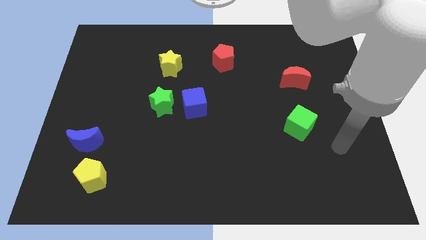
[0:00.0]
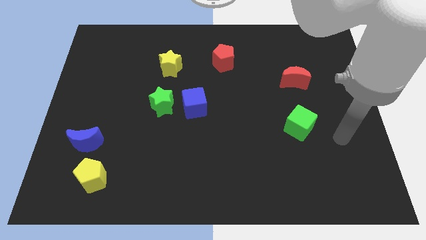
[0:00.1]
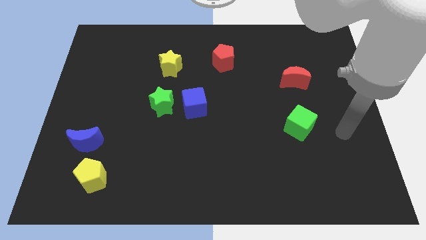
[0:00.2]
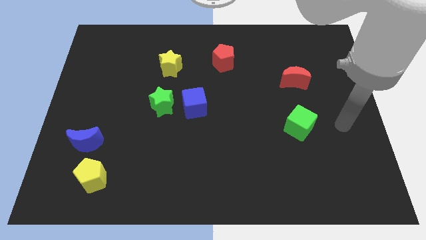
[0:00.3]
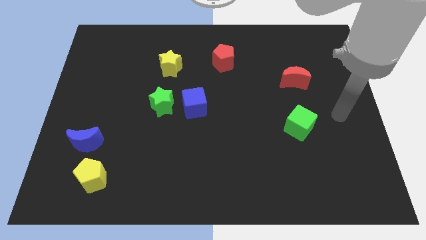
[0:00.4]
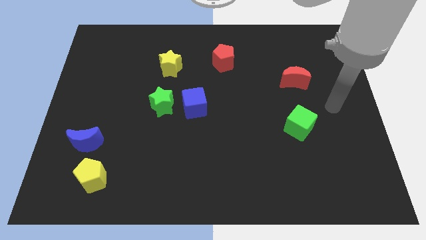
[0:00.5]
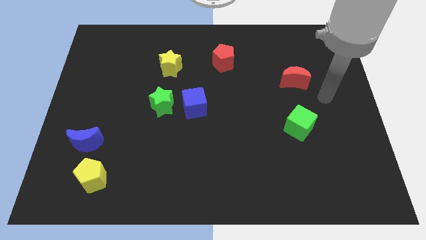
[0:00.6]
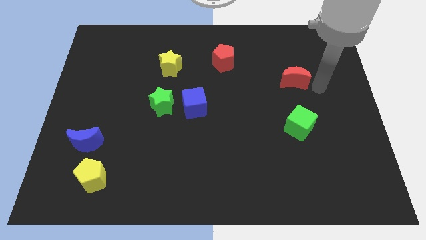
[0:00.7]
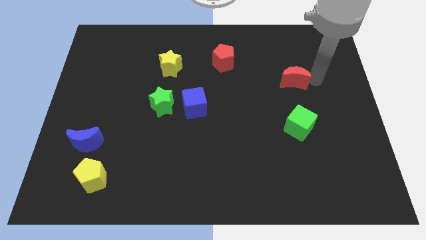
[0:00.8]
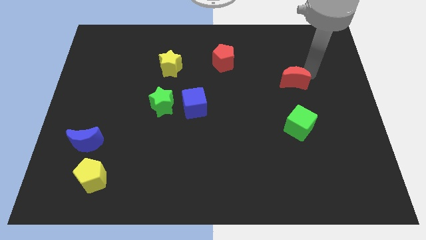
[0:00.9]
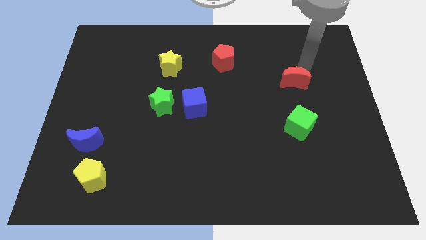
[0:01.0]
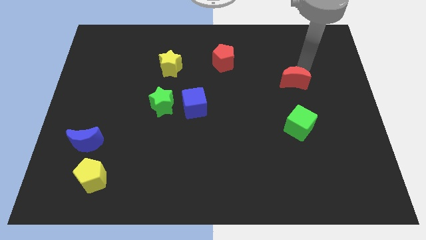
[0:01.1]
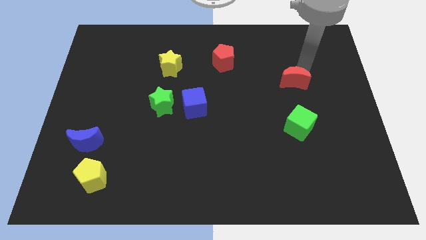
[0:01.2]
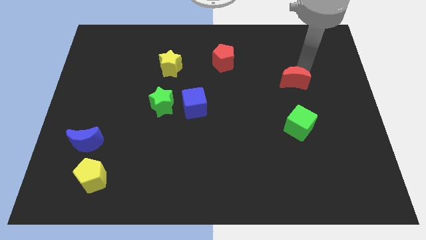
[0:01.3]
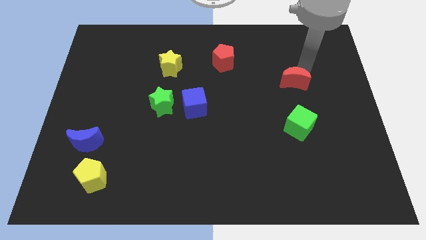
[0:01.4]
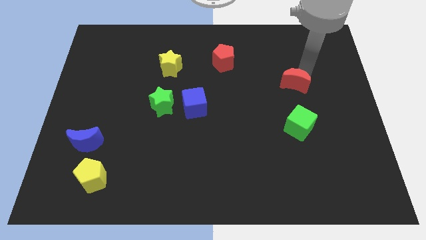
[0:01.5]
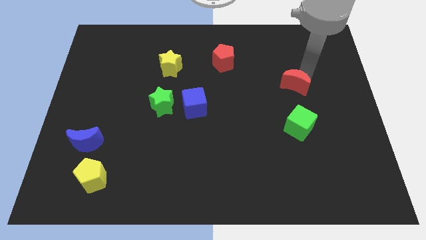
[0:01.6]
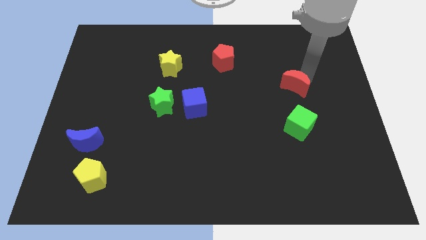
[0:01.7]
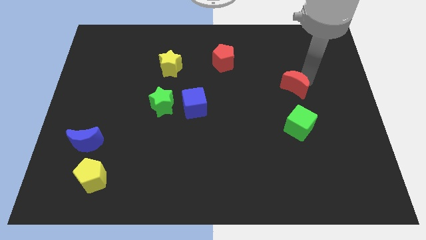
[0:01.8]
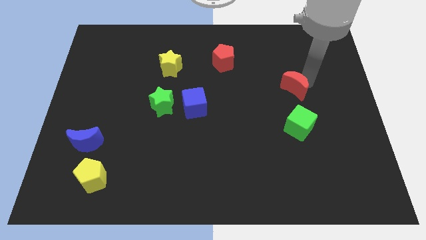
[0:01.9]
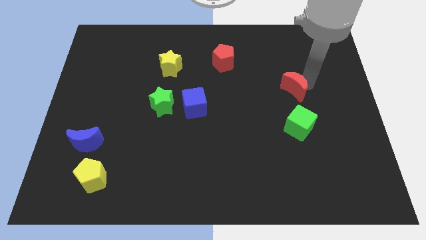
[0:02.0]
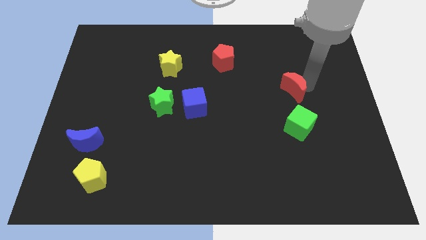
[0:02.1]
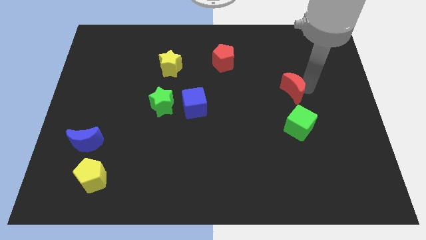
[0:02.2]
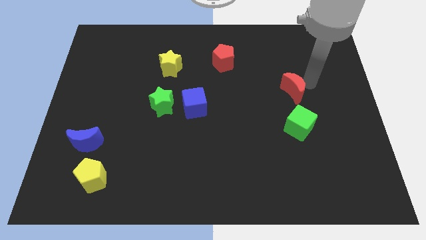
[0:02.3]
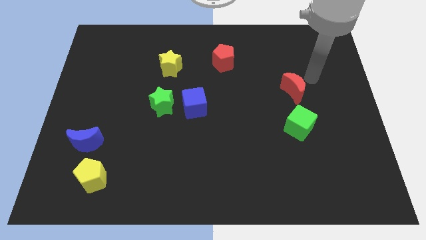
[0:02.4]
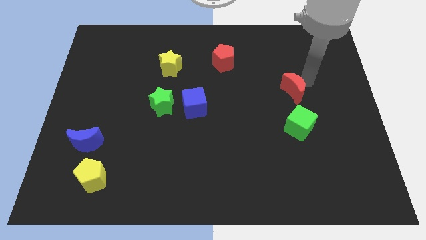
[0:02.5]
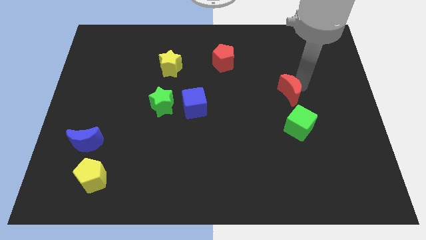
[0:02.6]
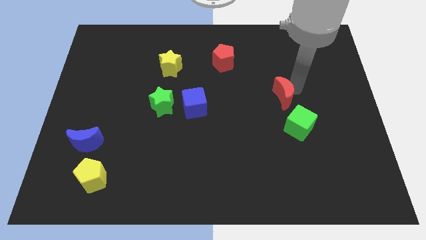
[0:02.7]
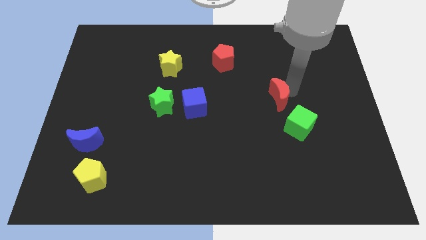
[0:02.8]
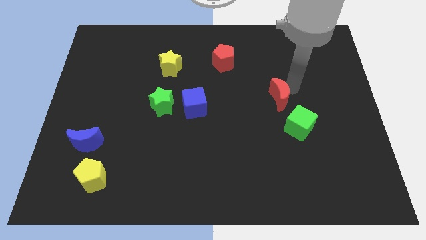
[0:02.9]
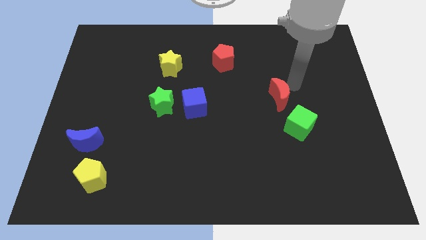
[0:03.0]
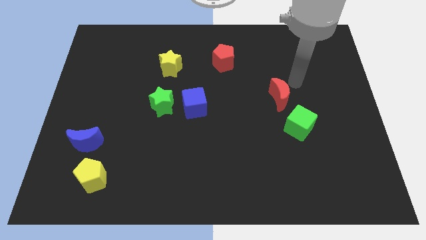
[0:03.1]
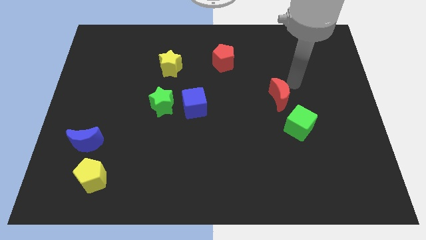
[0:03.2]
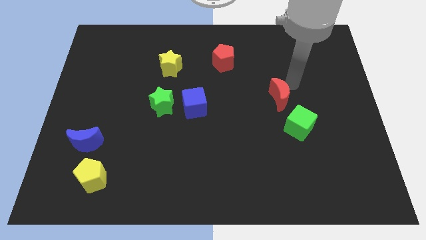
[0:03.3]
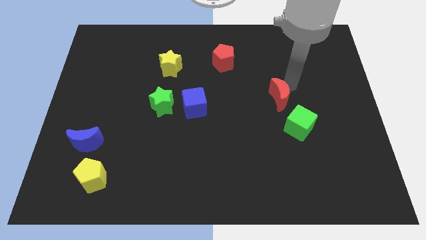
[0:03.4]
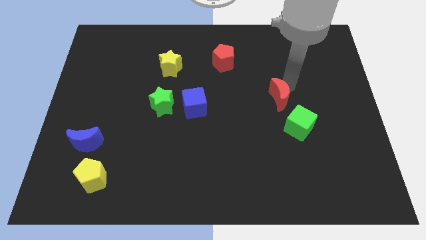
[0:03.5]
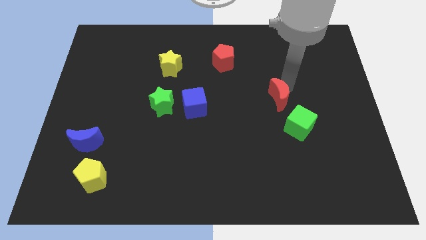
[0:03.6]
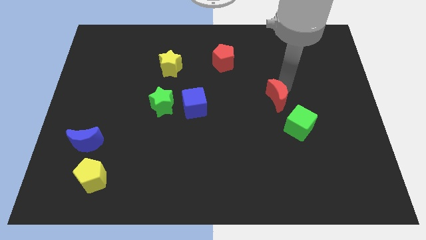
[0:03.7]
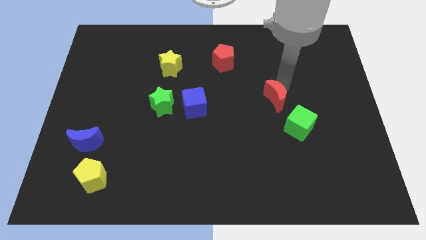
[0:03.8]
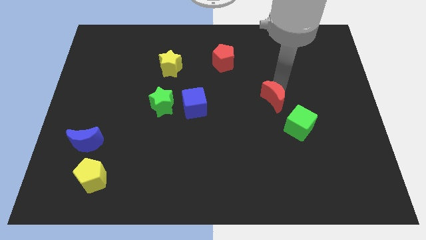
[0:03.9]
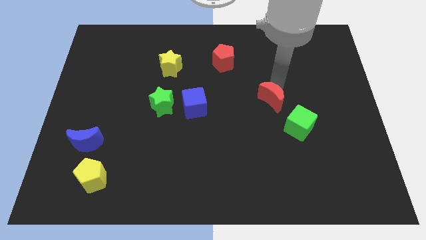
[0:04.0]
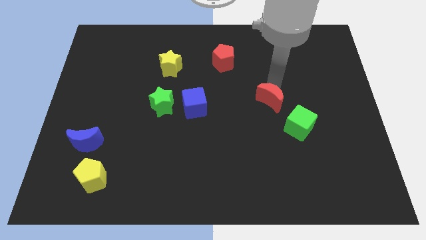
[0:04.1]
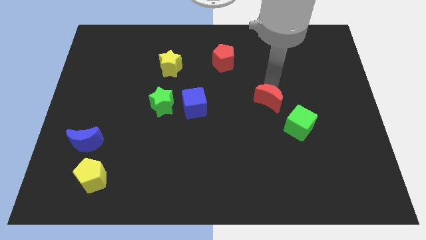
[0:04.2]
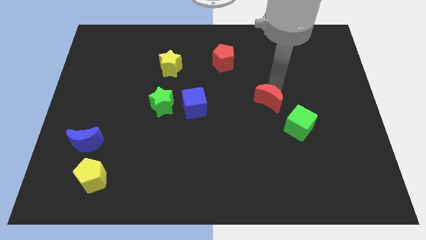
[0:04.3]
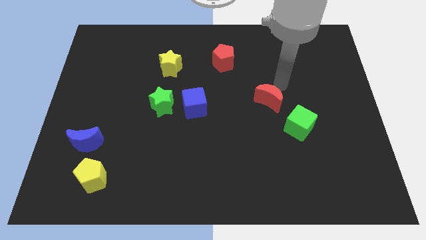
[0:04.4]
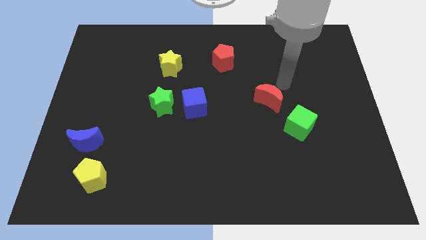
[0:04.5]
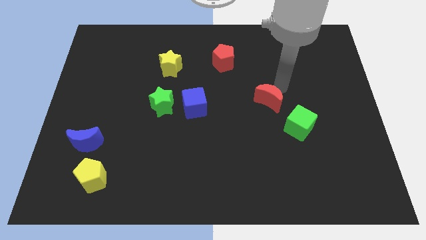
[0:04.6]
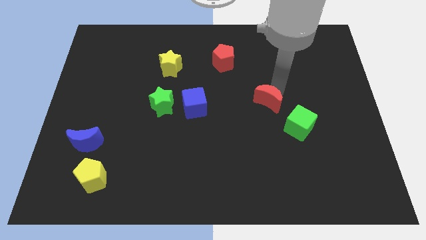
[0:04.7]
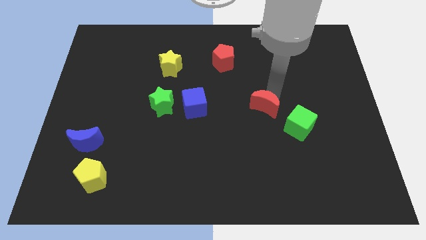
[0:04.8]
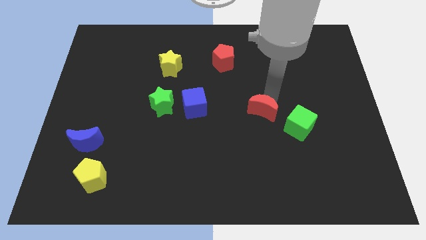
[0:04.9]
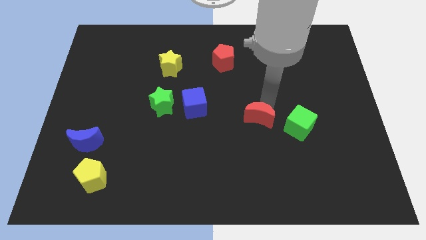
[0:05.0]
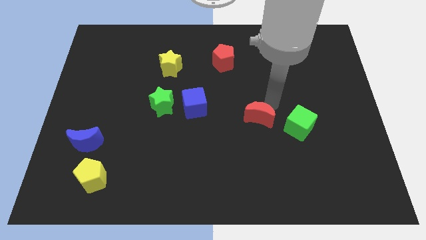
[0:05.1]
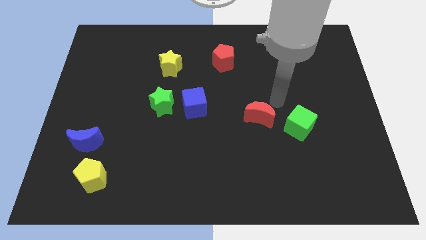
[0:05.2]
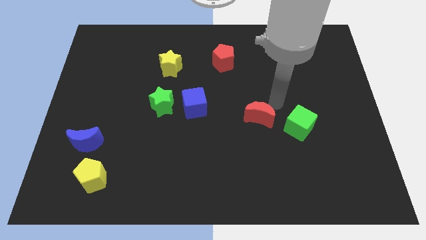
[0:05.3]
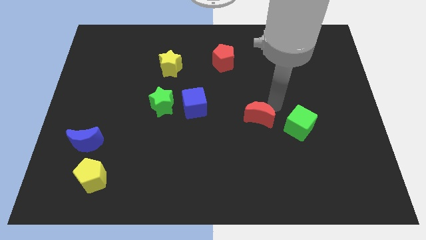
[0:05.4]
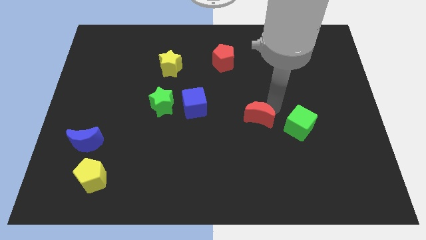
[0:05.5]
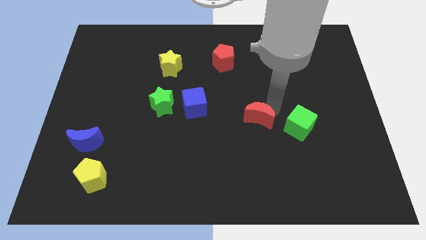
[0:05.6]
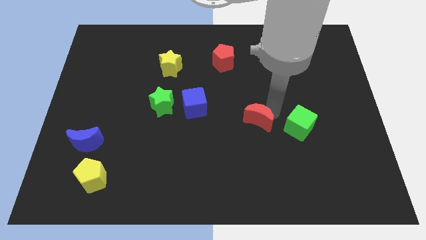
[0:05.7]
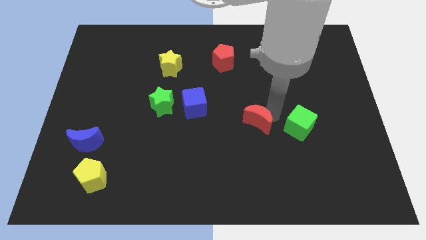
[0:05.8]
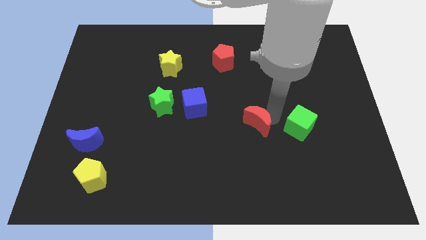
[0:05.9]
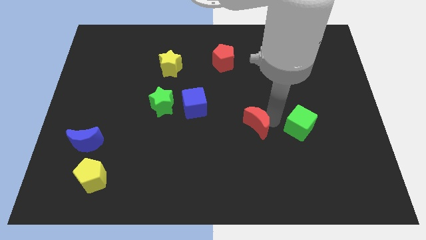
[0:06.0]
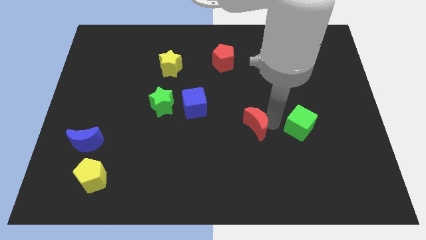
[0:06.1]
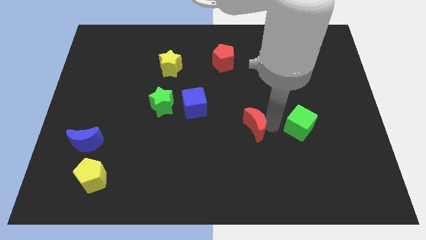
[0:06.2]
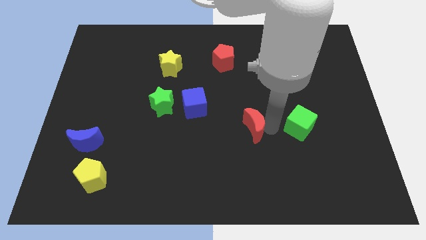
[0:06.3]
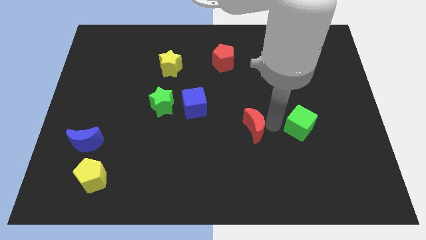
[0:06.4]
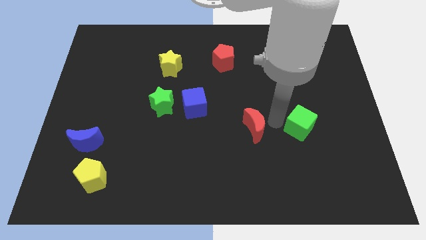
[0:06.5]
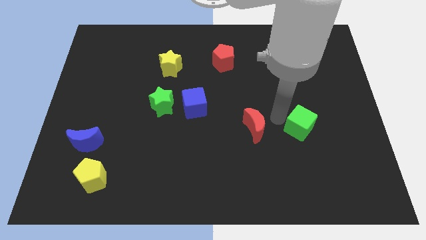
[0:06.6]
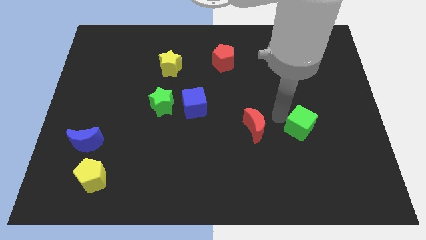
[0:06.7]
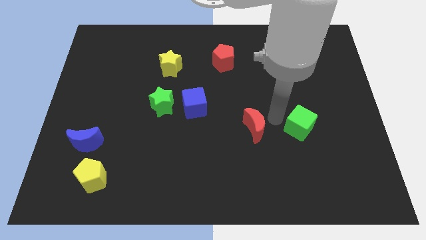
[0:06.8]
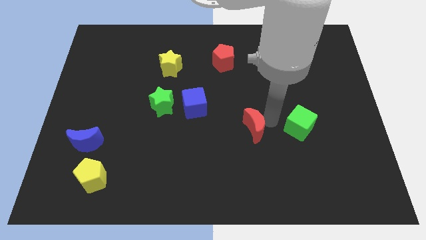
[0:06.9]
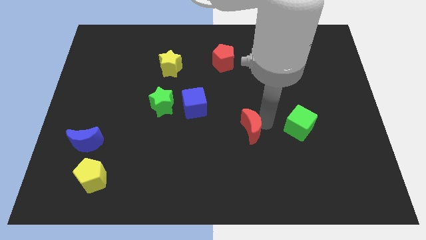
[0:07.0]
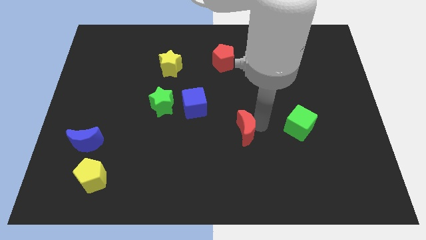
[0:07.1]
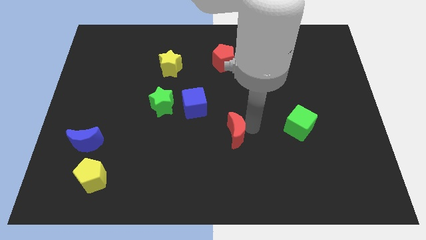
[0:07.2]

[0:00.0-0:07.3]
push the red moon downwards and to the left diagonally

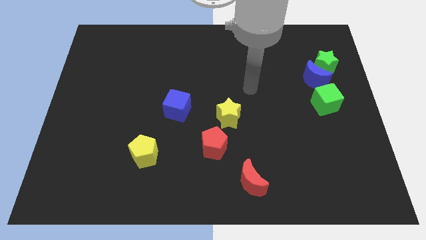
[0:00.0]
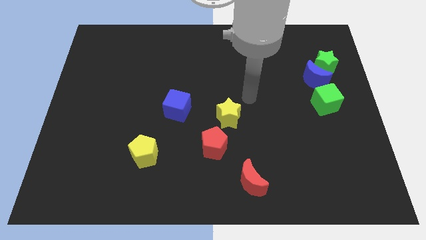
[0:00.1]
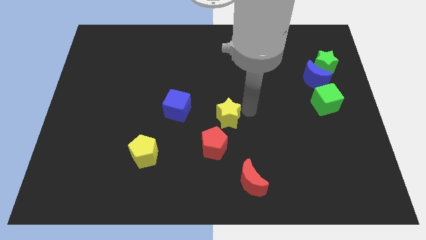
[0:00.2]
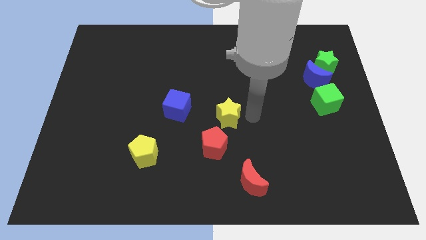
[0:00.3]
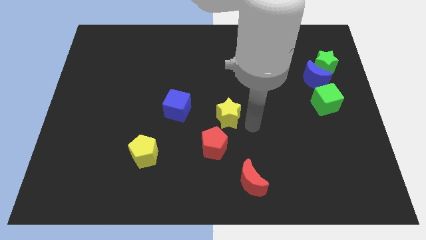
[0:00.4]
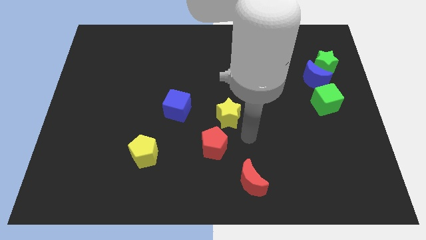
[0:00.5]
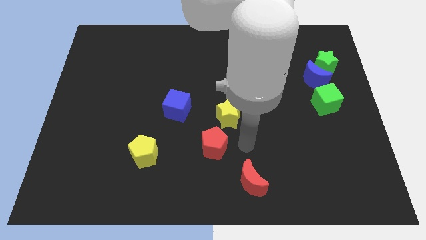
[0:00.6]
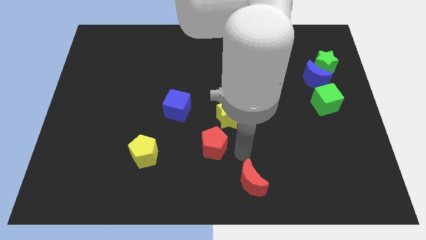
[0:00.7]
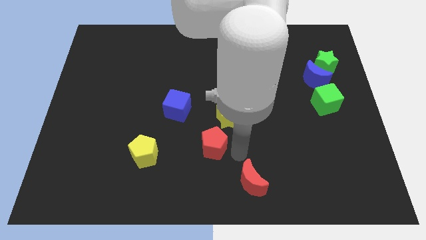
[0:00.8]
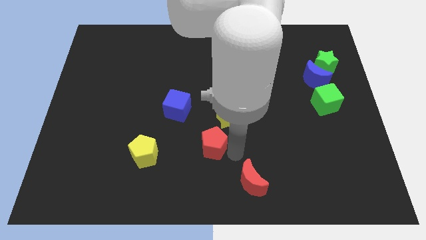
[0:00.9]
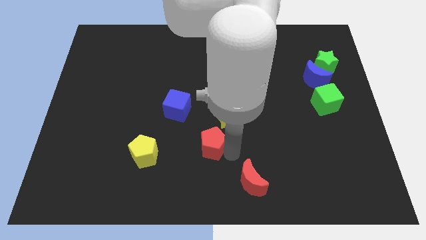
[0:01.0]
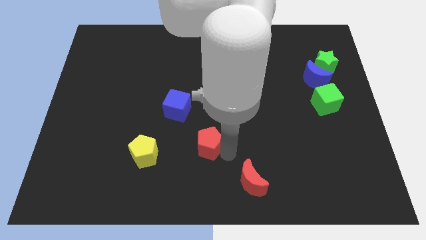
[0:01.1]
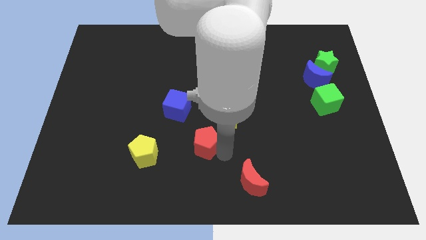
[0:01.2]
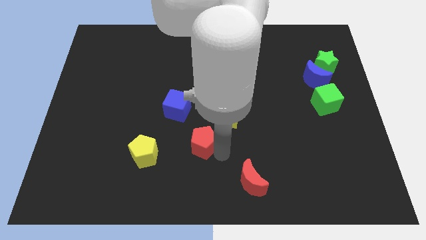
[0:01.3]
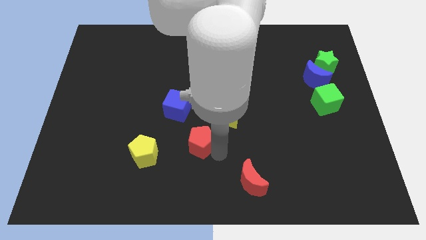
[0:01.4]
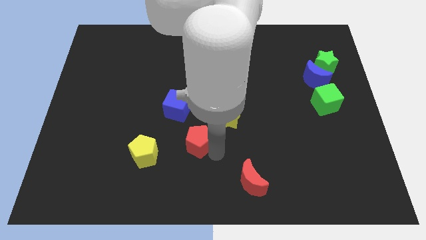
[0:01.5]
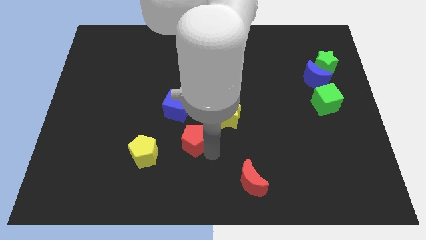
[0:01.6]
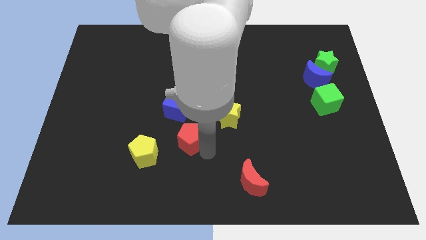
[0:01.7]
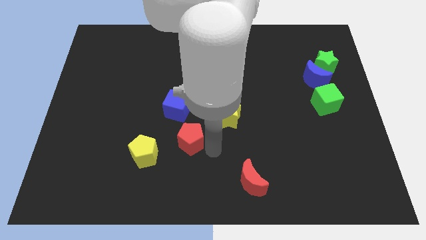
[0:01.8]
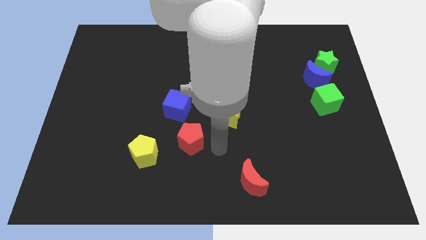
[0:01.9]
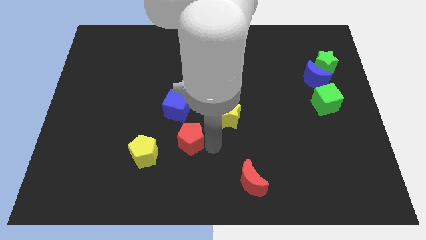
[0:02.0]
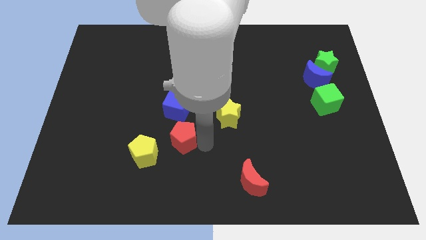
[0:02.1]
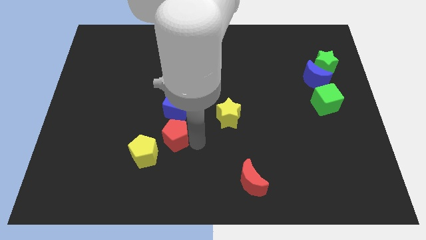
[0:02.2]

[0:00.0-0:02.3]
slightly move the red pentagon left
